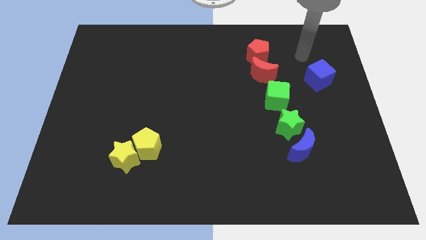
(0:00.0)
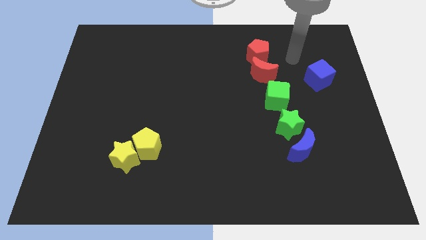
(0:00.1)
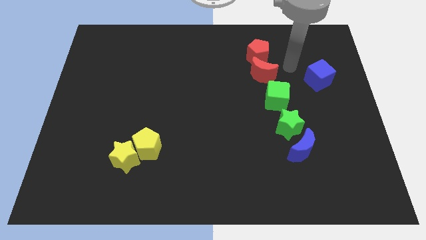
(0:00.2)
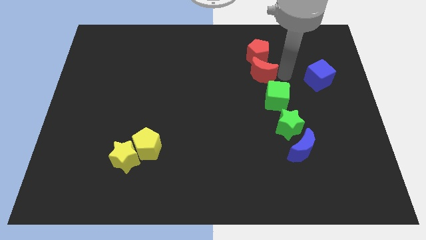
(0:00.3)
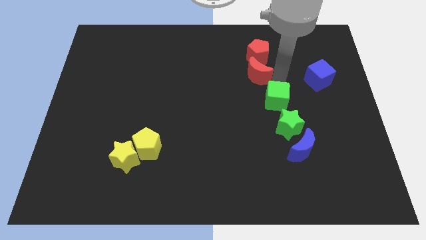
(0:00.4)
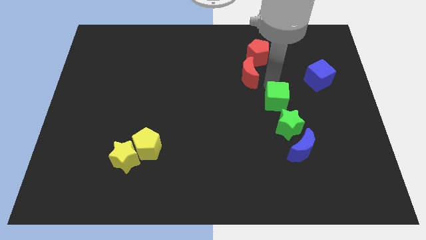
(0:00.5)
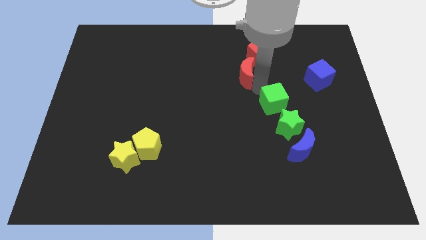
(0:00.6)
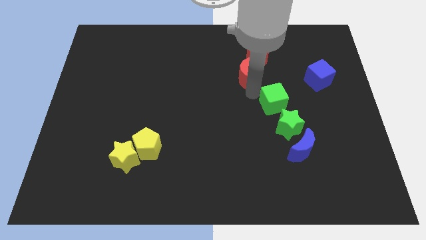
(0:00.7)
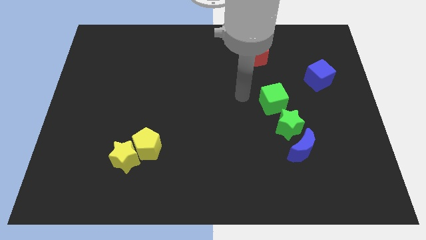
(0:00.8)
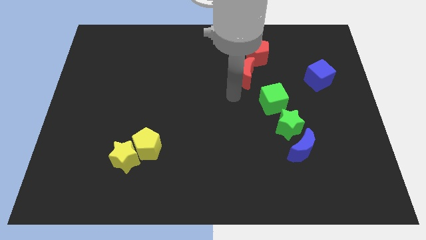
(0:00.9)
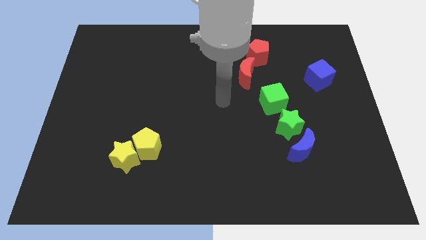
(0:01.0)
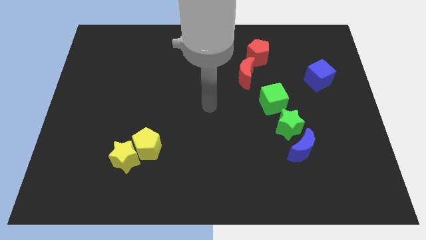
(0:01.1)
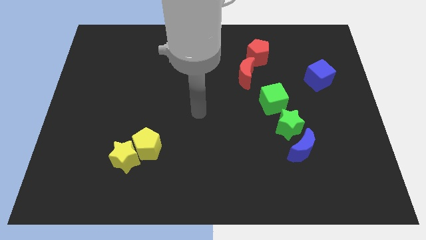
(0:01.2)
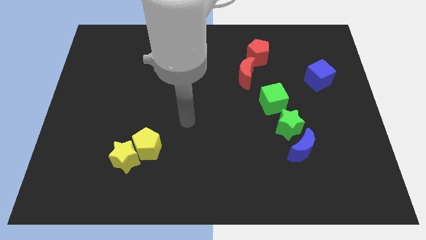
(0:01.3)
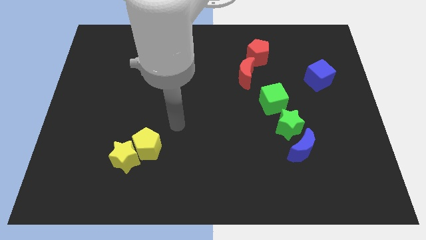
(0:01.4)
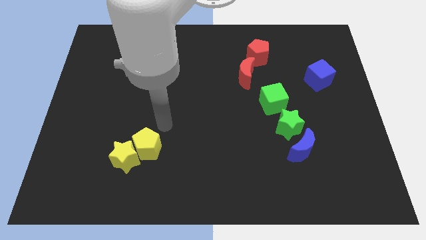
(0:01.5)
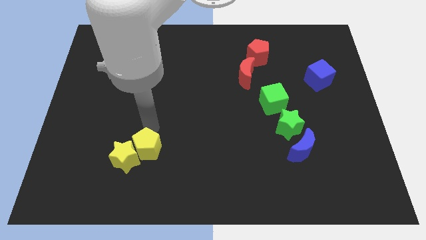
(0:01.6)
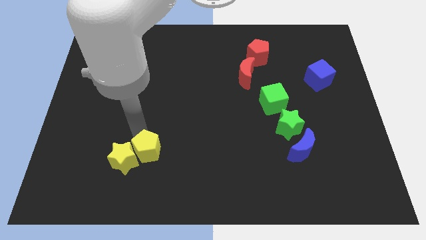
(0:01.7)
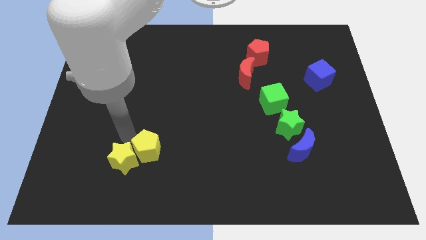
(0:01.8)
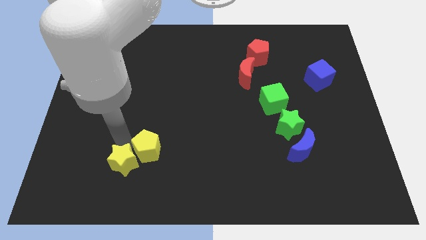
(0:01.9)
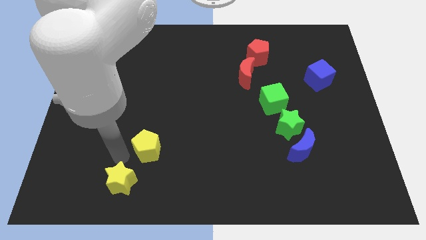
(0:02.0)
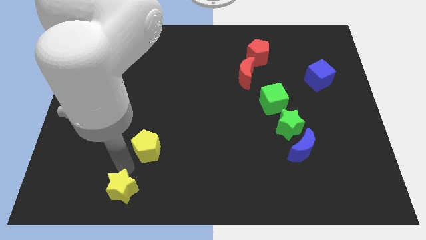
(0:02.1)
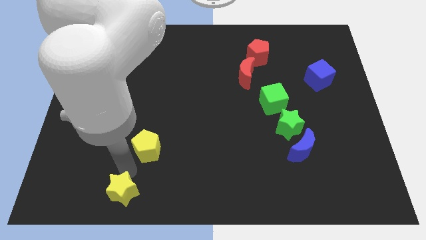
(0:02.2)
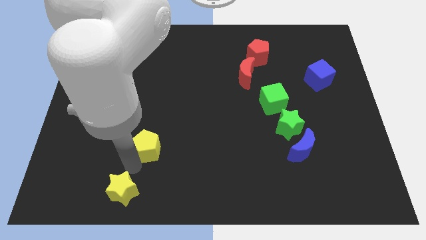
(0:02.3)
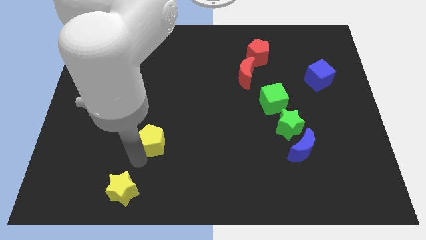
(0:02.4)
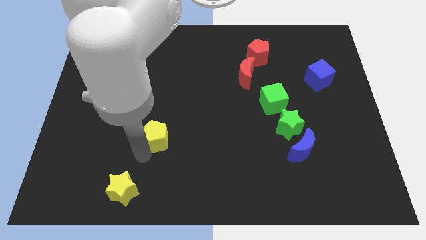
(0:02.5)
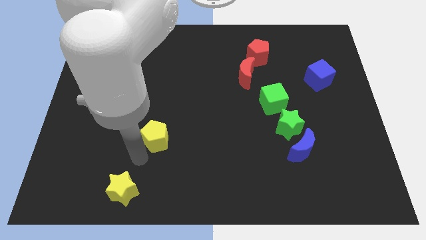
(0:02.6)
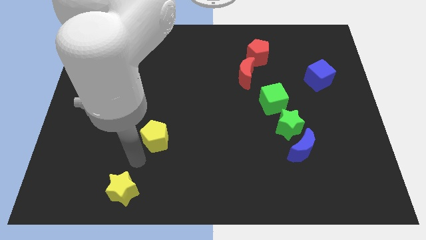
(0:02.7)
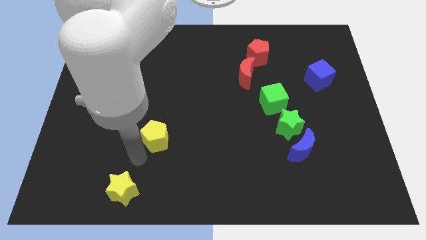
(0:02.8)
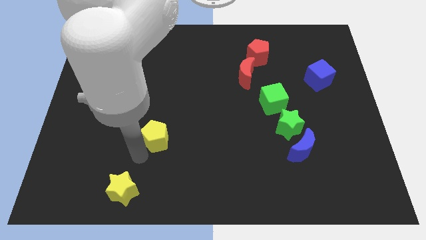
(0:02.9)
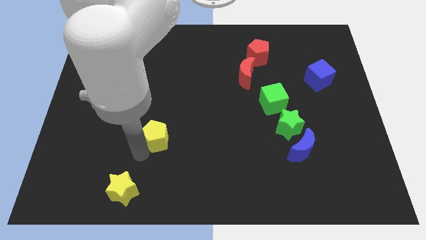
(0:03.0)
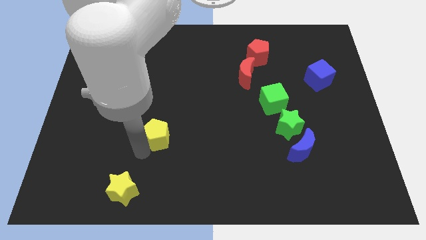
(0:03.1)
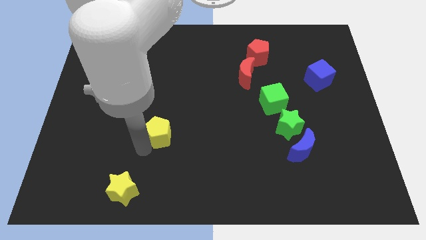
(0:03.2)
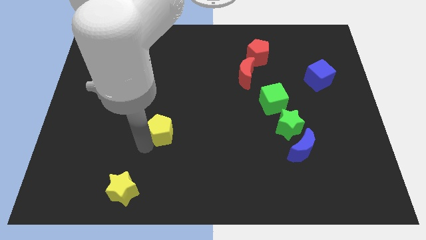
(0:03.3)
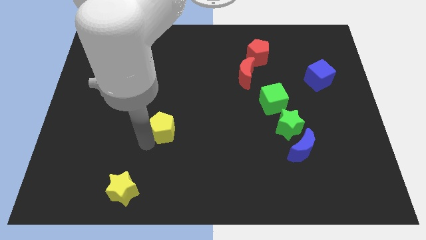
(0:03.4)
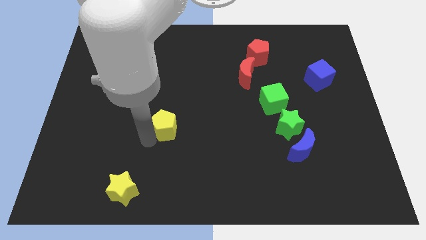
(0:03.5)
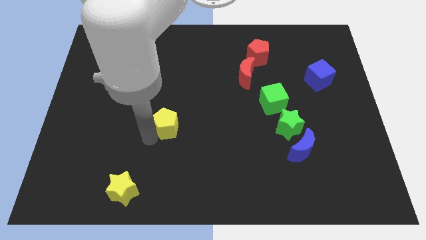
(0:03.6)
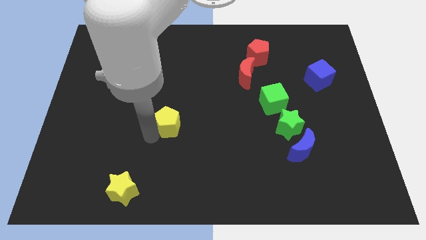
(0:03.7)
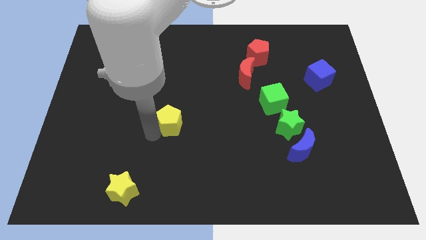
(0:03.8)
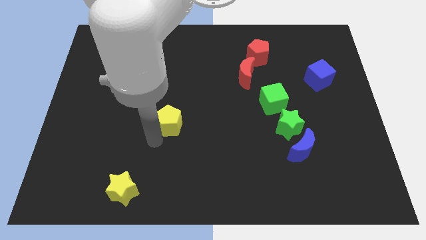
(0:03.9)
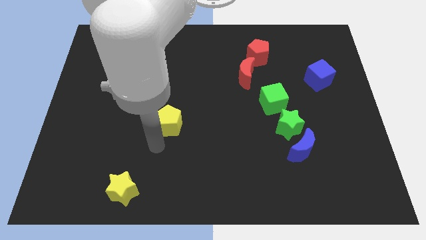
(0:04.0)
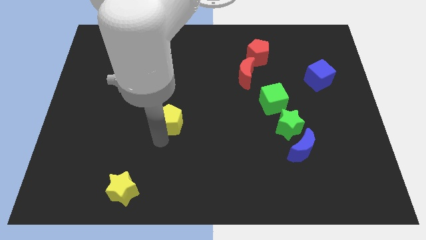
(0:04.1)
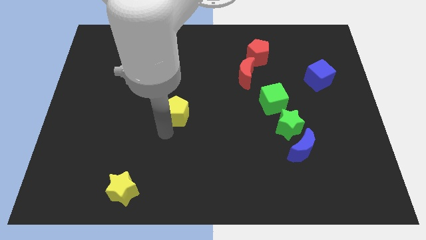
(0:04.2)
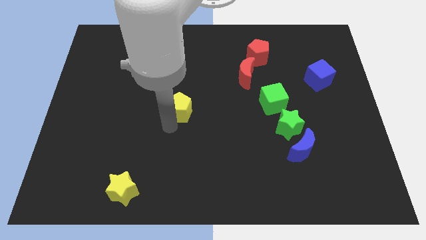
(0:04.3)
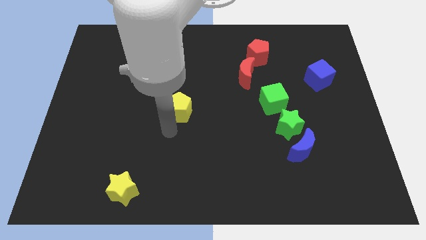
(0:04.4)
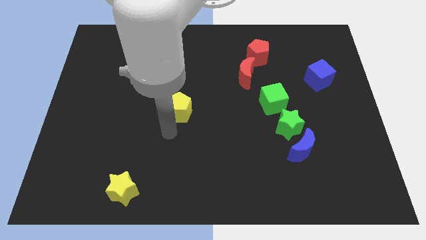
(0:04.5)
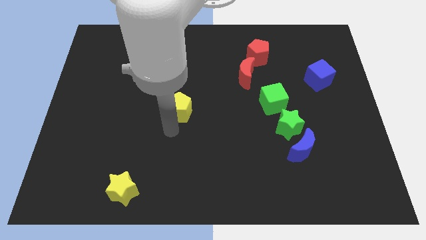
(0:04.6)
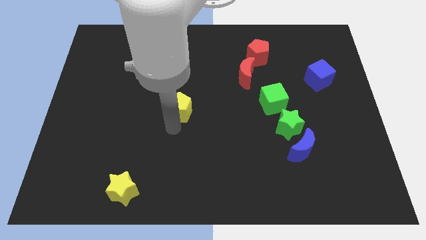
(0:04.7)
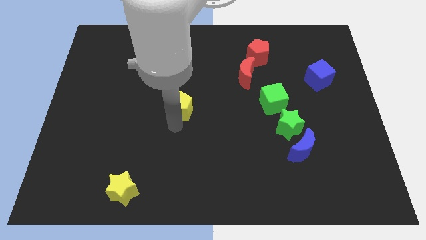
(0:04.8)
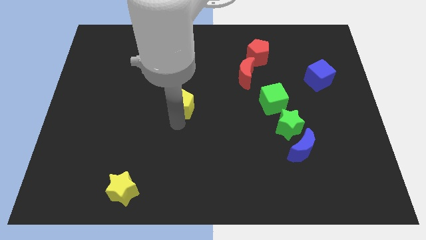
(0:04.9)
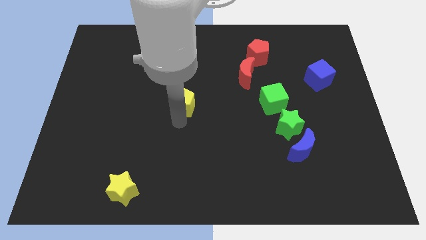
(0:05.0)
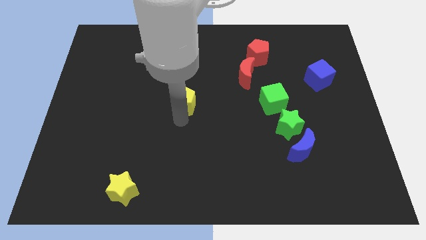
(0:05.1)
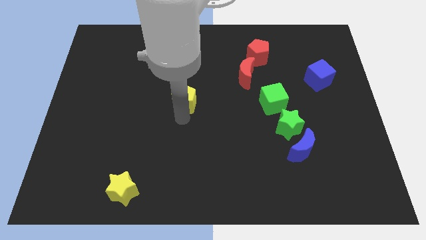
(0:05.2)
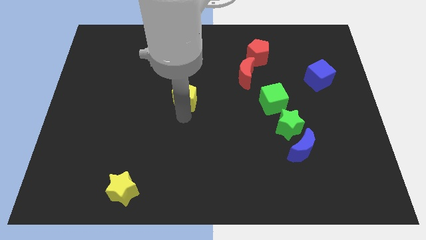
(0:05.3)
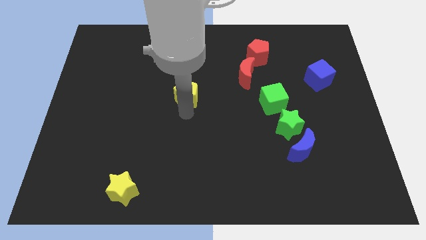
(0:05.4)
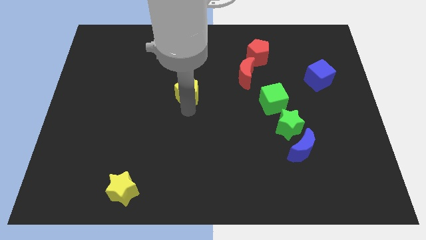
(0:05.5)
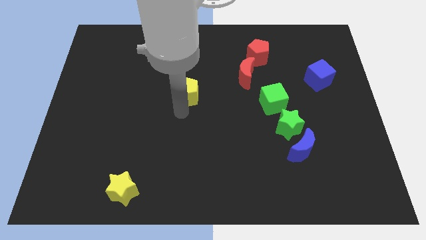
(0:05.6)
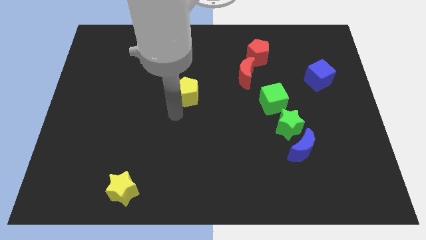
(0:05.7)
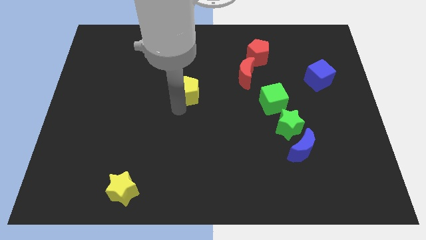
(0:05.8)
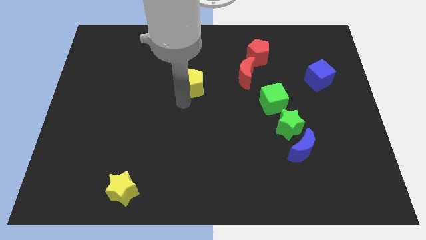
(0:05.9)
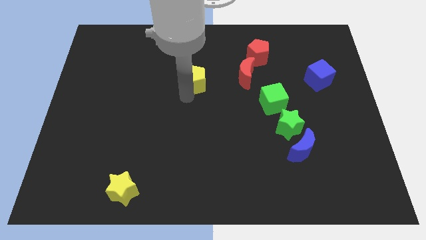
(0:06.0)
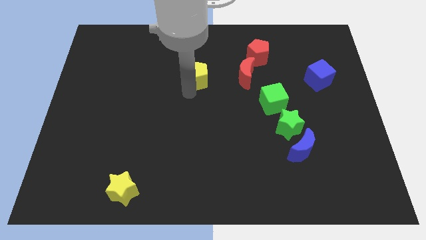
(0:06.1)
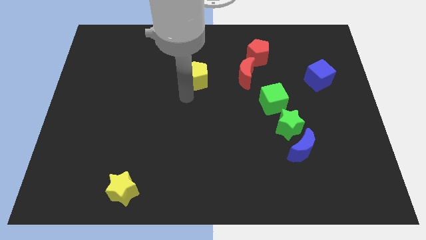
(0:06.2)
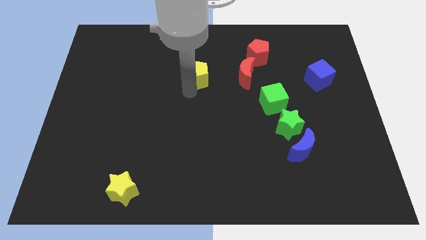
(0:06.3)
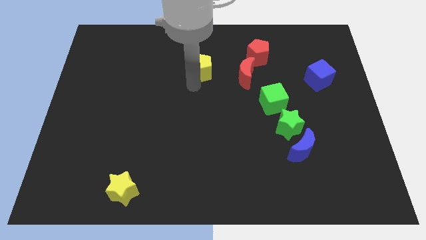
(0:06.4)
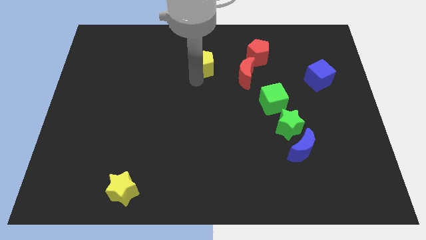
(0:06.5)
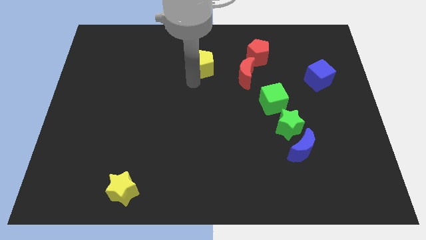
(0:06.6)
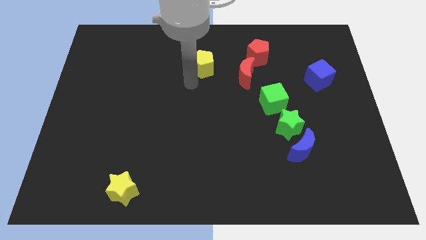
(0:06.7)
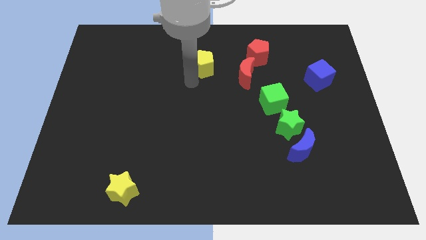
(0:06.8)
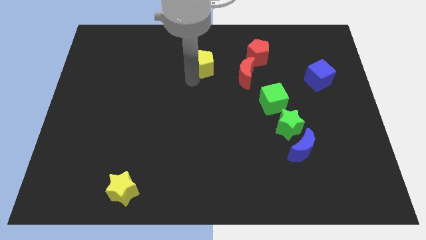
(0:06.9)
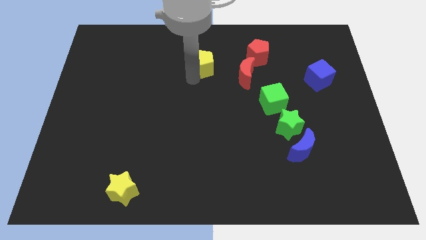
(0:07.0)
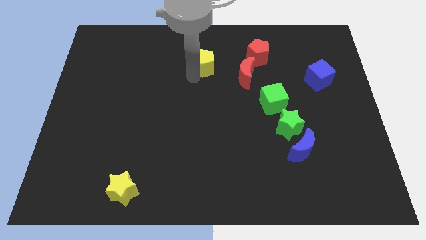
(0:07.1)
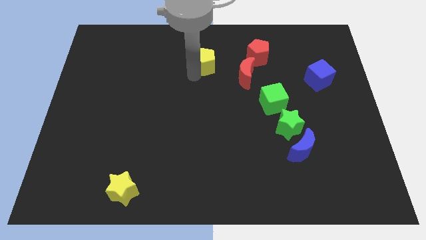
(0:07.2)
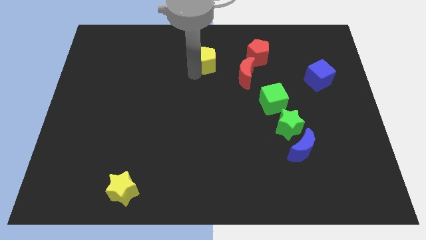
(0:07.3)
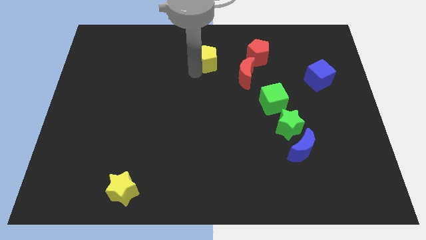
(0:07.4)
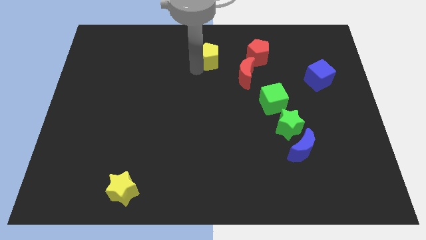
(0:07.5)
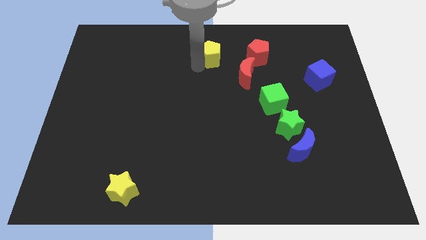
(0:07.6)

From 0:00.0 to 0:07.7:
move the yellow pentagon to the top
